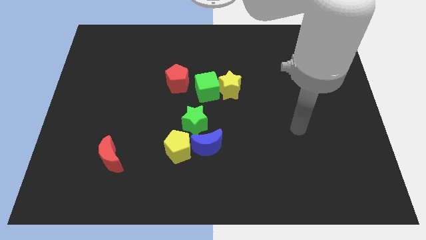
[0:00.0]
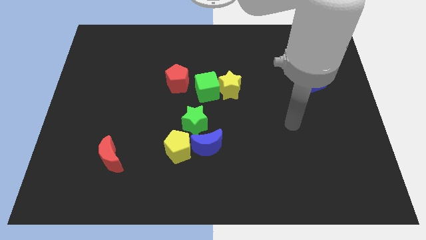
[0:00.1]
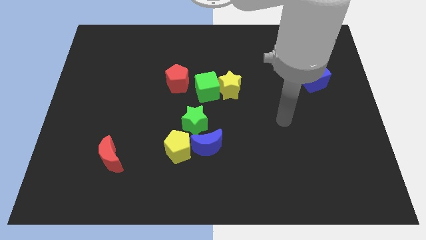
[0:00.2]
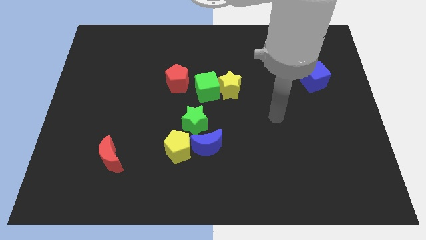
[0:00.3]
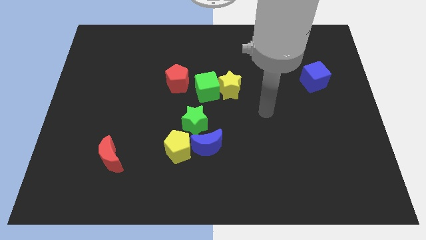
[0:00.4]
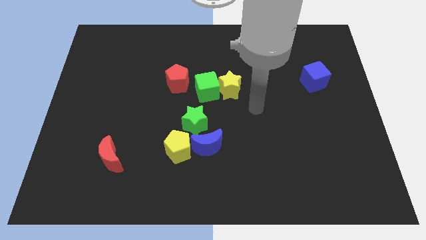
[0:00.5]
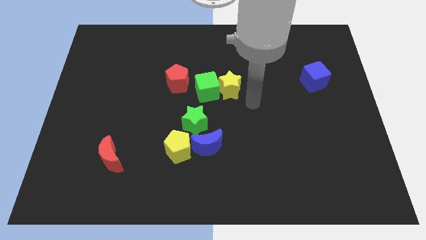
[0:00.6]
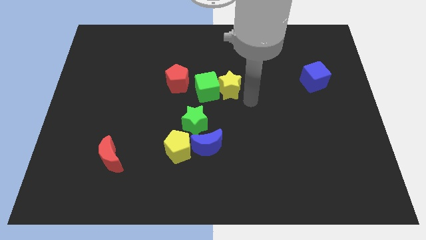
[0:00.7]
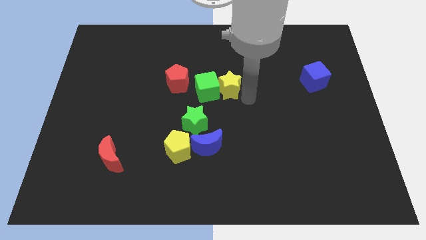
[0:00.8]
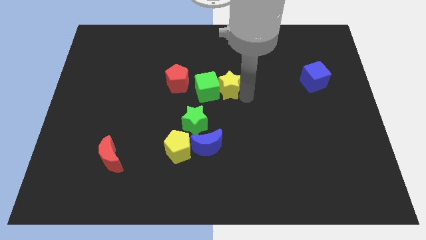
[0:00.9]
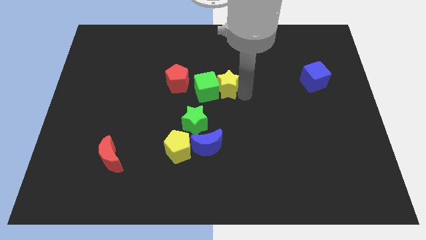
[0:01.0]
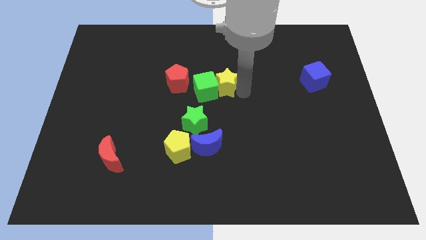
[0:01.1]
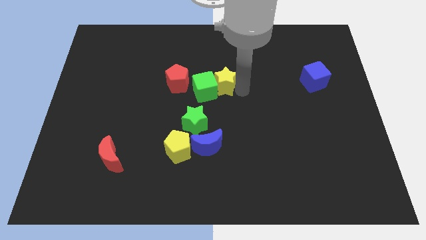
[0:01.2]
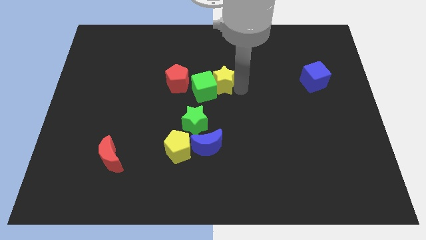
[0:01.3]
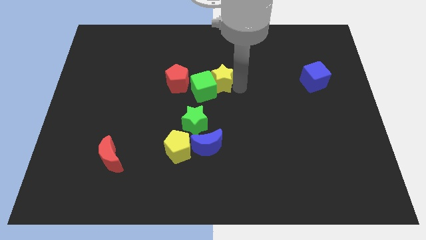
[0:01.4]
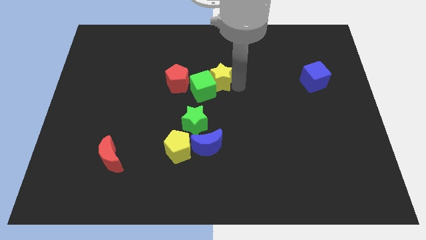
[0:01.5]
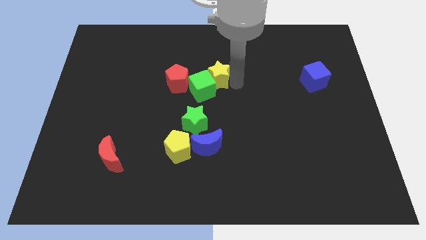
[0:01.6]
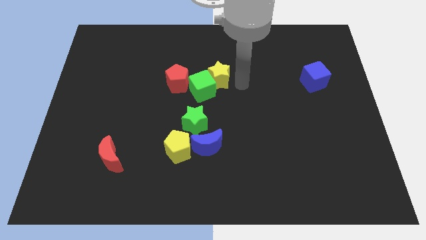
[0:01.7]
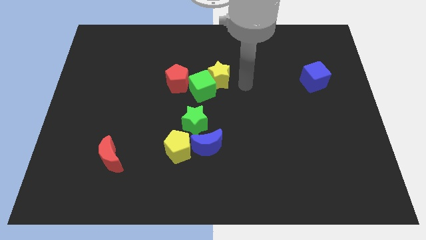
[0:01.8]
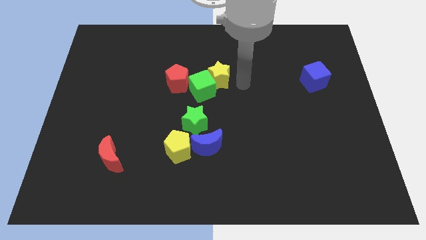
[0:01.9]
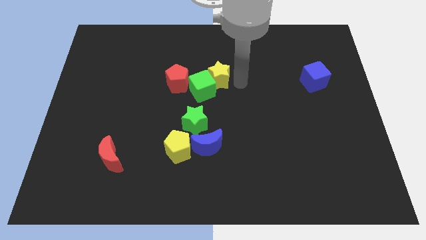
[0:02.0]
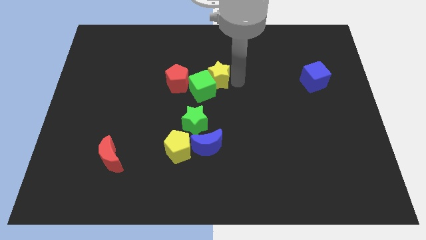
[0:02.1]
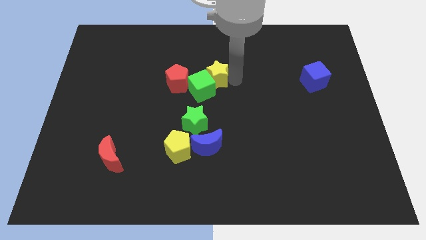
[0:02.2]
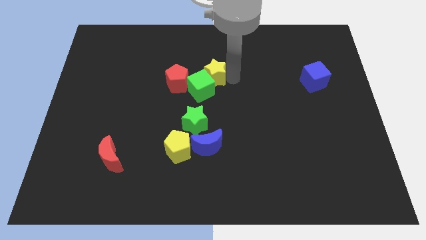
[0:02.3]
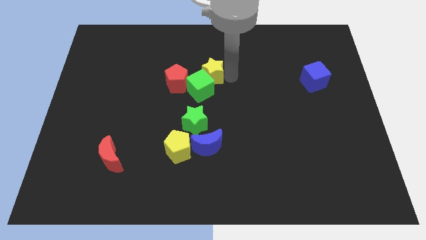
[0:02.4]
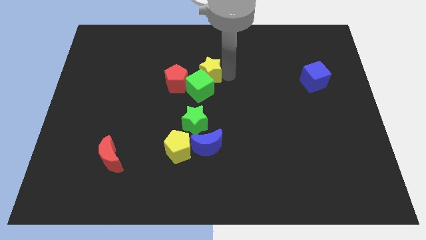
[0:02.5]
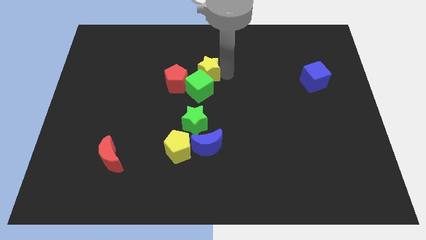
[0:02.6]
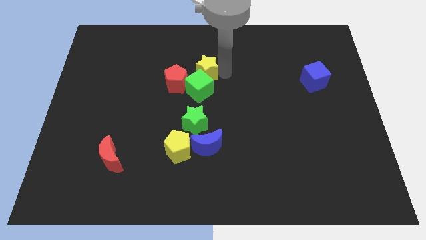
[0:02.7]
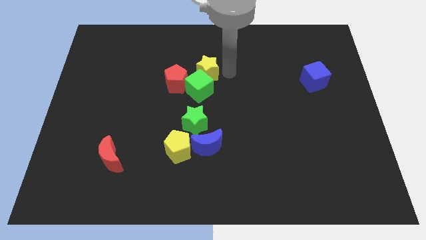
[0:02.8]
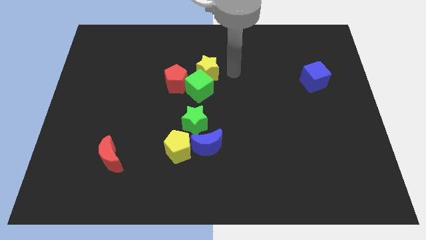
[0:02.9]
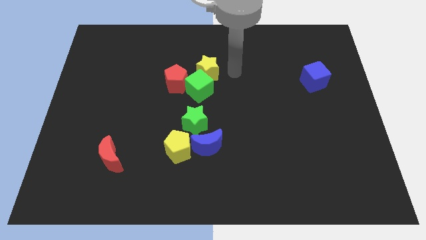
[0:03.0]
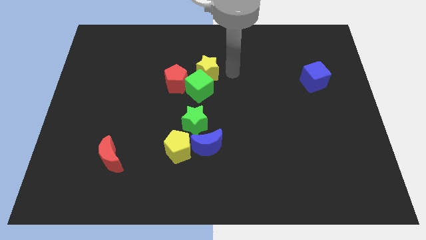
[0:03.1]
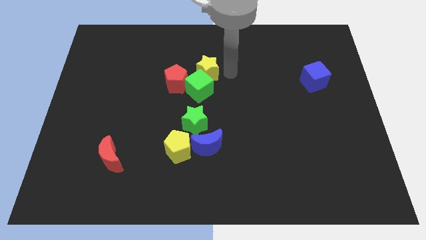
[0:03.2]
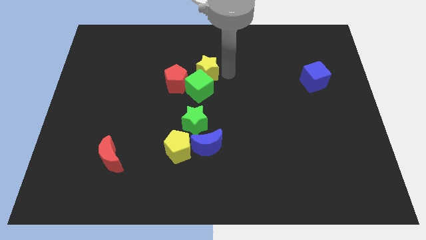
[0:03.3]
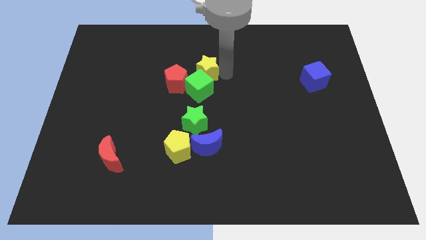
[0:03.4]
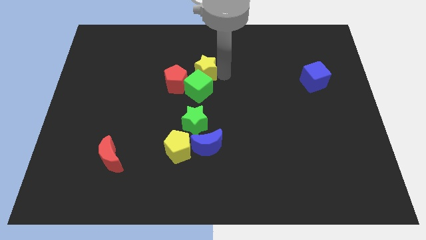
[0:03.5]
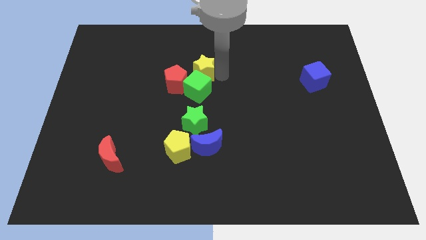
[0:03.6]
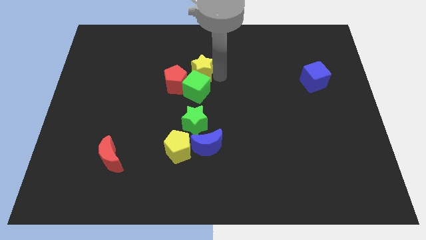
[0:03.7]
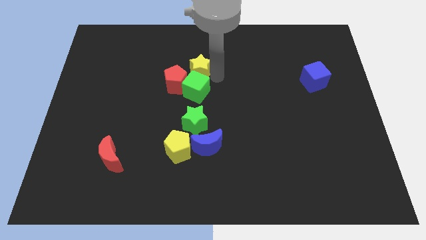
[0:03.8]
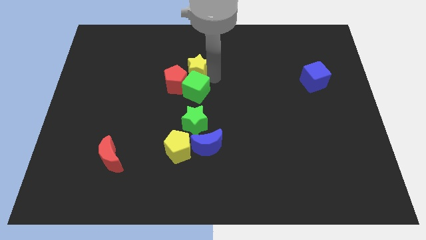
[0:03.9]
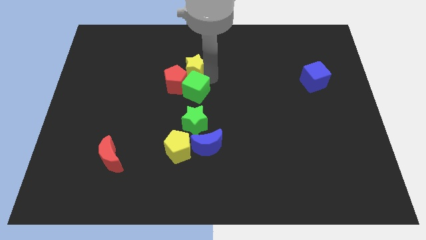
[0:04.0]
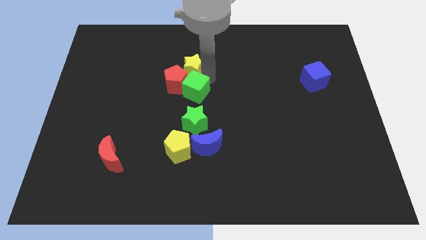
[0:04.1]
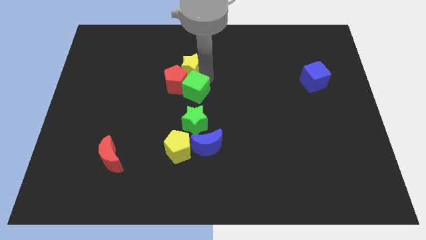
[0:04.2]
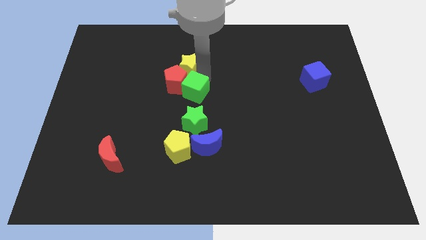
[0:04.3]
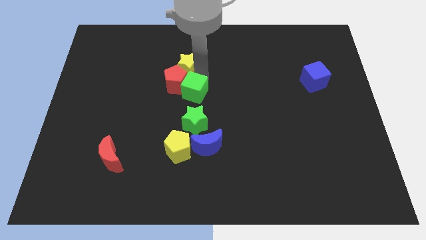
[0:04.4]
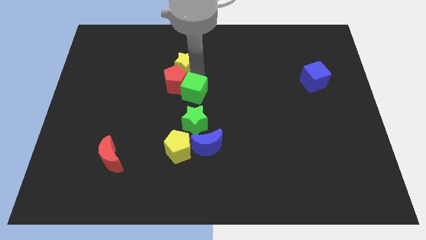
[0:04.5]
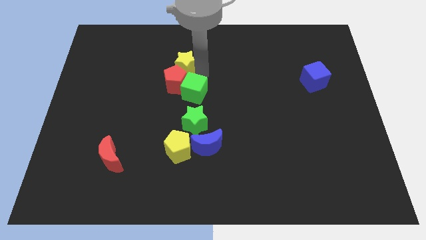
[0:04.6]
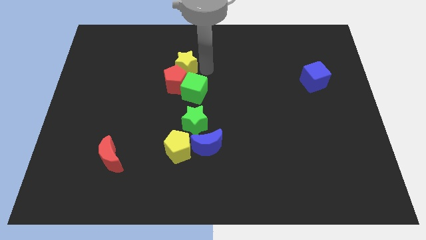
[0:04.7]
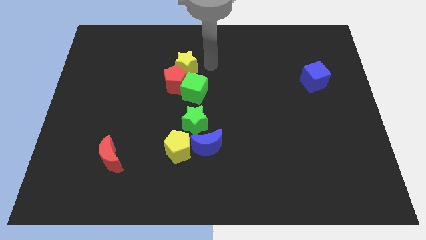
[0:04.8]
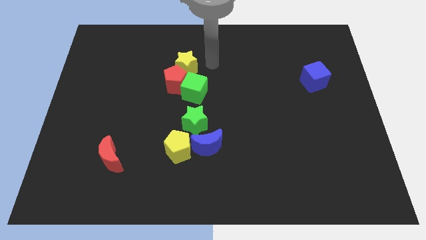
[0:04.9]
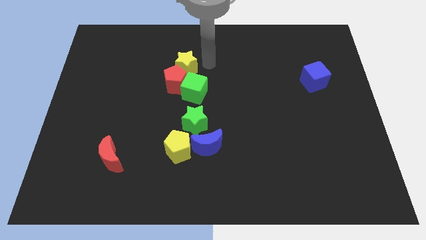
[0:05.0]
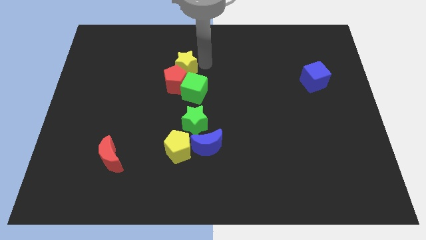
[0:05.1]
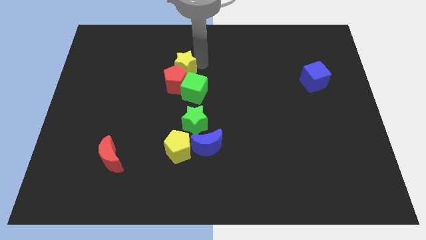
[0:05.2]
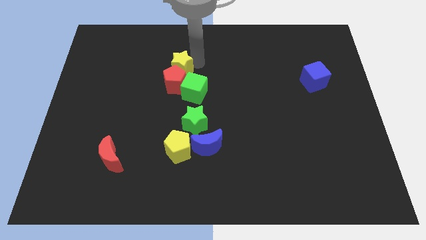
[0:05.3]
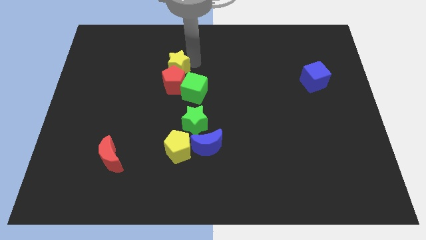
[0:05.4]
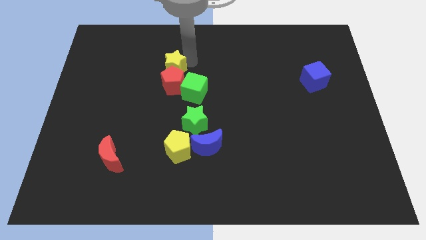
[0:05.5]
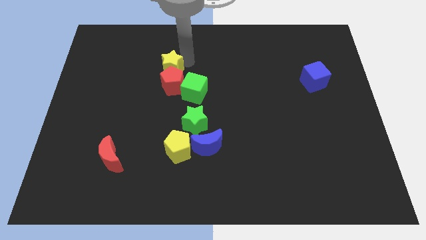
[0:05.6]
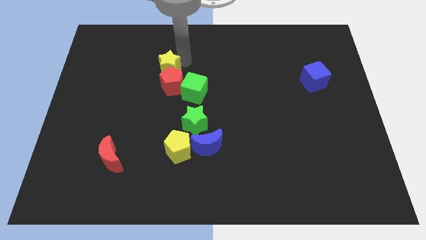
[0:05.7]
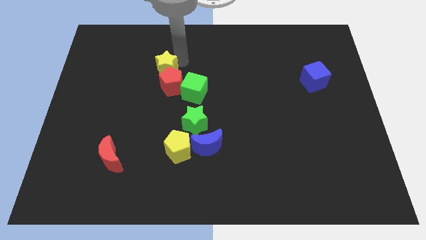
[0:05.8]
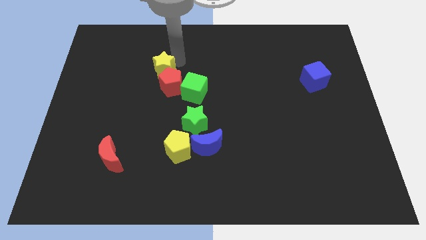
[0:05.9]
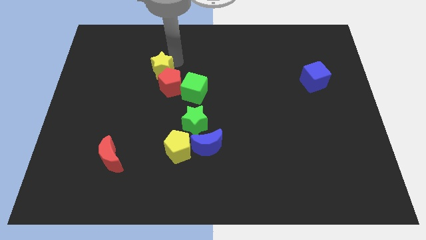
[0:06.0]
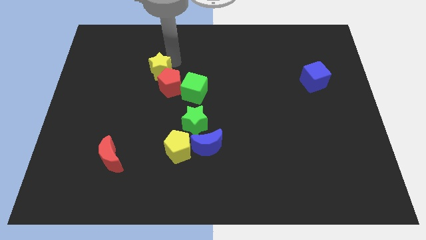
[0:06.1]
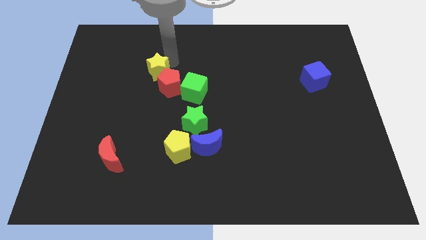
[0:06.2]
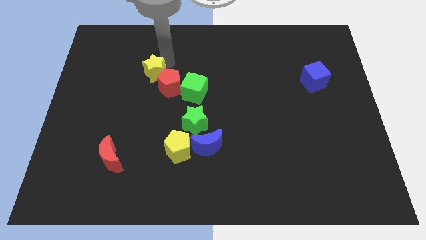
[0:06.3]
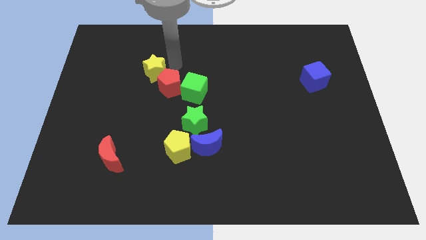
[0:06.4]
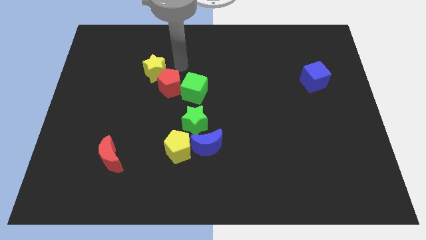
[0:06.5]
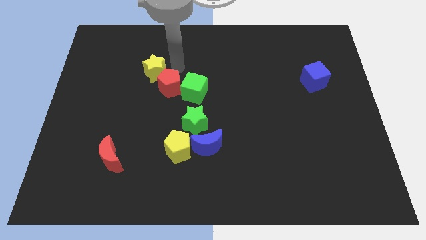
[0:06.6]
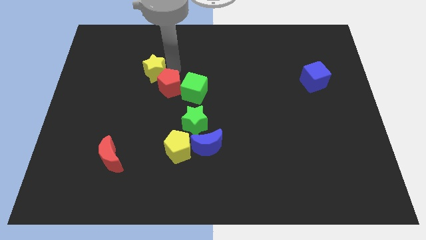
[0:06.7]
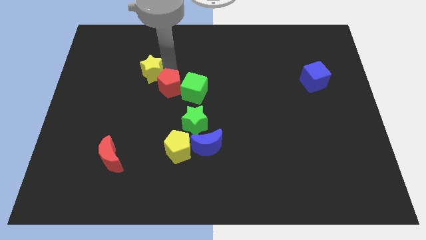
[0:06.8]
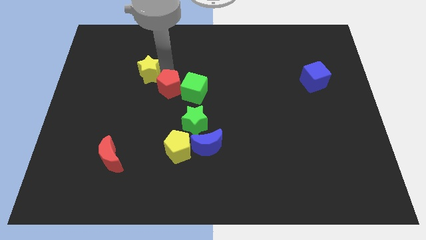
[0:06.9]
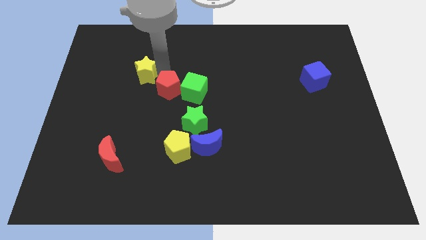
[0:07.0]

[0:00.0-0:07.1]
move the yellow star left

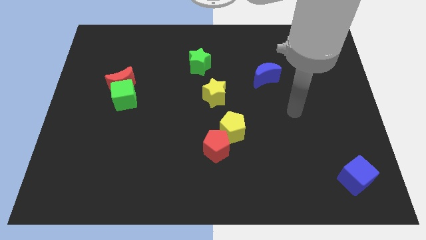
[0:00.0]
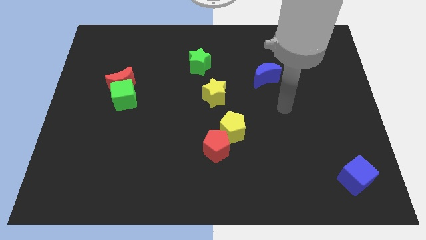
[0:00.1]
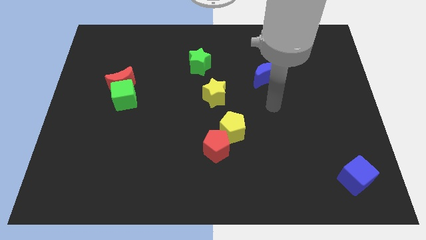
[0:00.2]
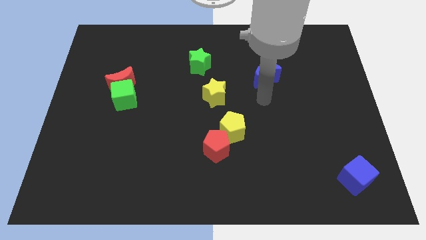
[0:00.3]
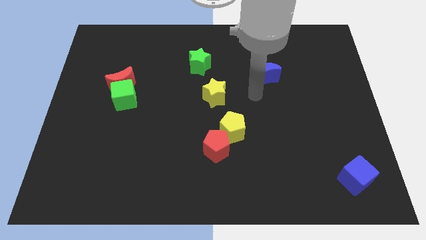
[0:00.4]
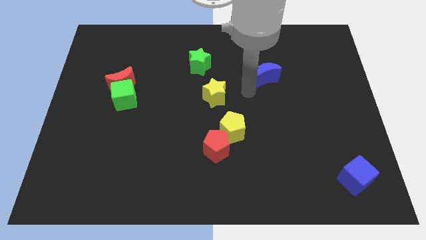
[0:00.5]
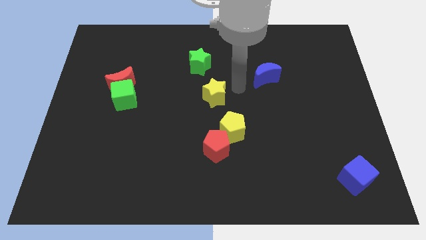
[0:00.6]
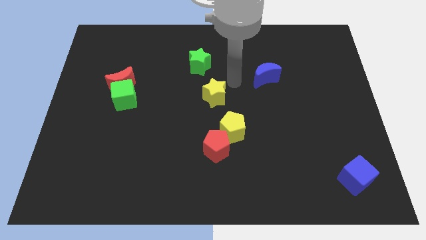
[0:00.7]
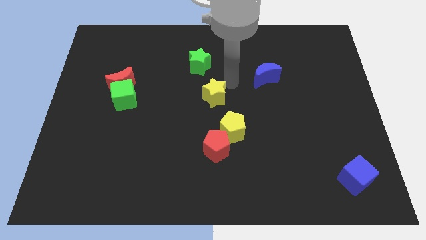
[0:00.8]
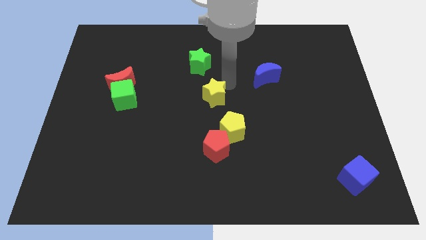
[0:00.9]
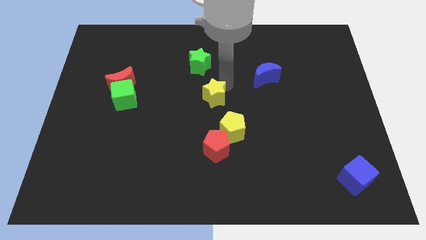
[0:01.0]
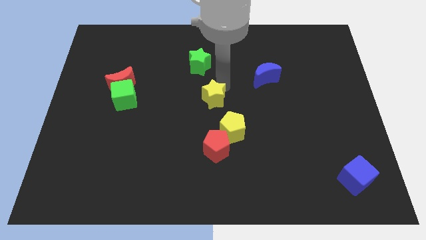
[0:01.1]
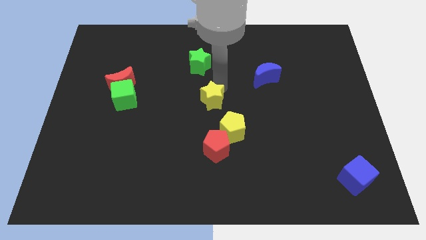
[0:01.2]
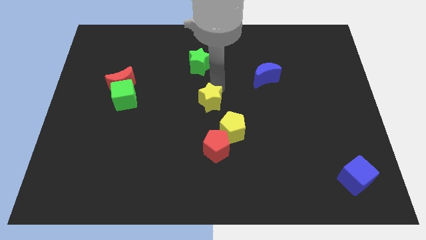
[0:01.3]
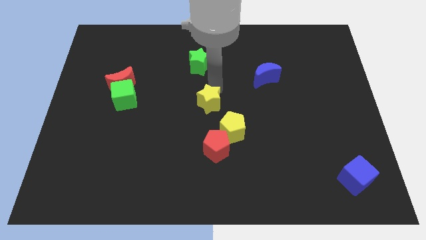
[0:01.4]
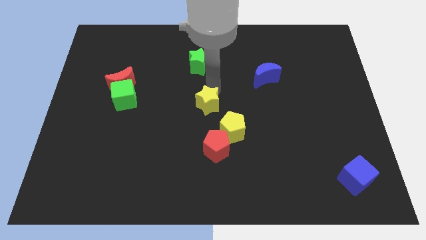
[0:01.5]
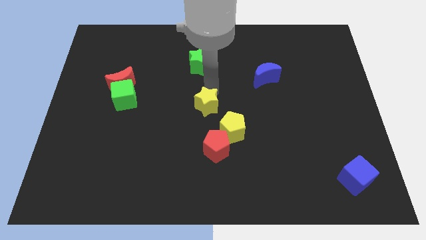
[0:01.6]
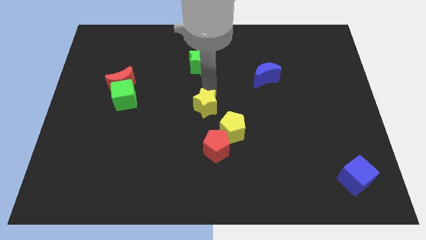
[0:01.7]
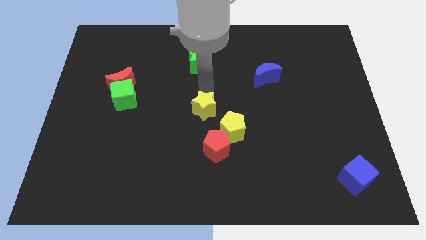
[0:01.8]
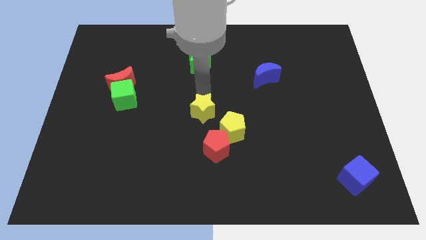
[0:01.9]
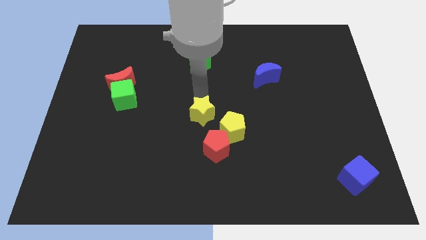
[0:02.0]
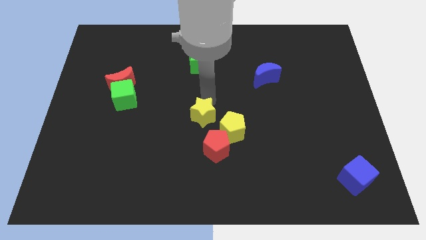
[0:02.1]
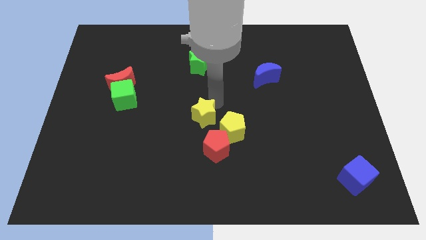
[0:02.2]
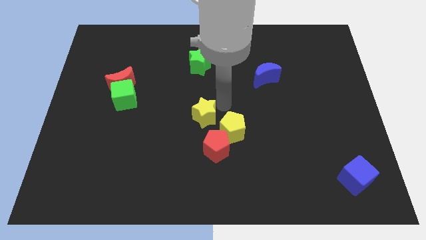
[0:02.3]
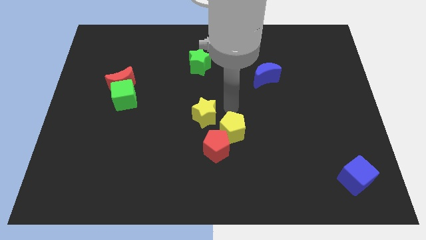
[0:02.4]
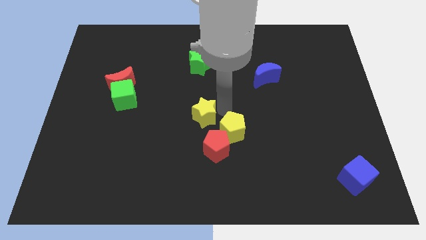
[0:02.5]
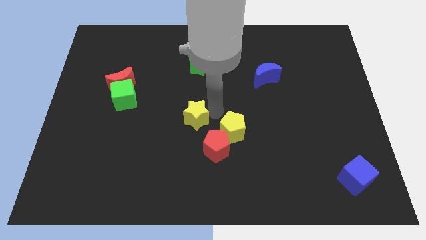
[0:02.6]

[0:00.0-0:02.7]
push the yellow star down and to the left a little
